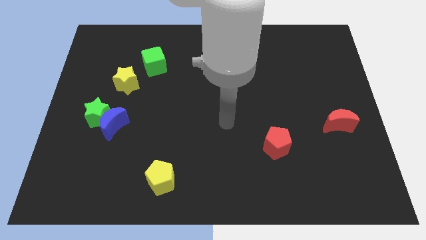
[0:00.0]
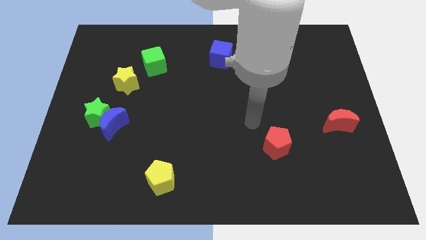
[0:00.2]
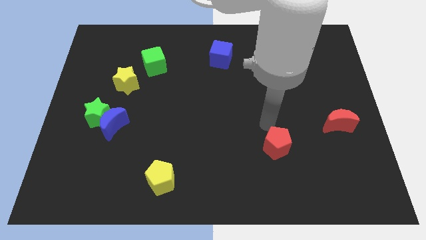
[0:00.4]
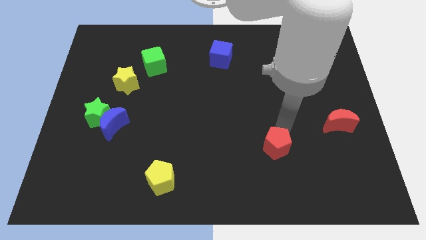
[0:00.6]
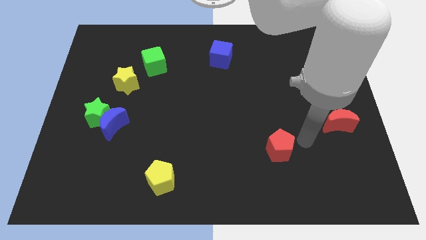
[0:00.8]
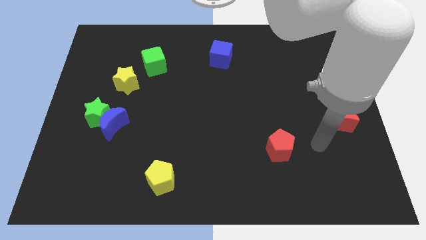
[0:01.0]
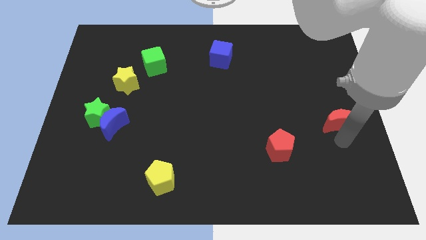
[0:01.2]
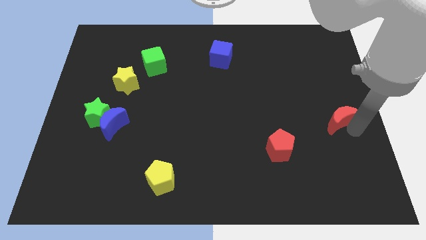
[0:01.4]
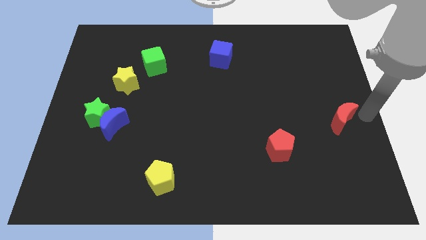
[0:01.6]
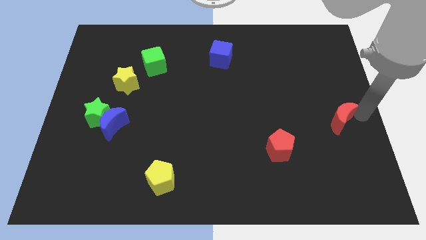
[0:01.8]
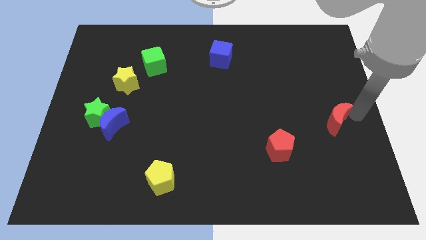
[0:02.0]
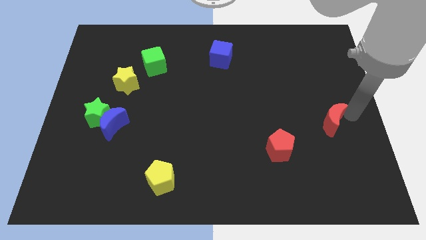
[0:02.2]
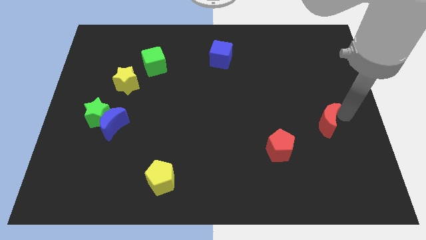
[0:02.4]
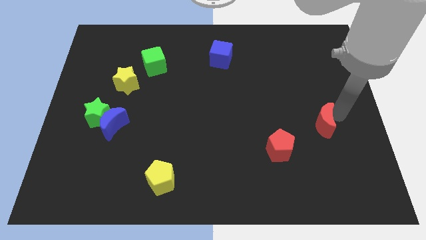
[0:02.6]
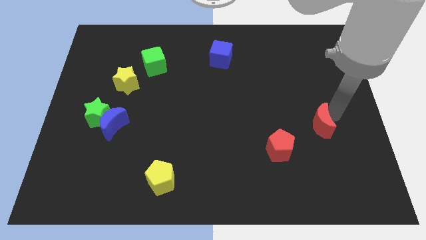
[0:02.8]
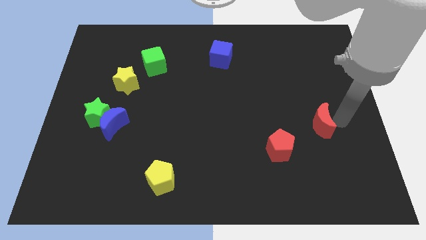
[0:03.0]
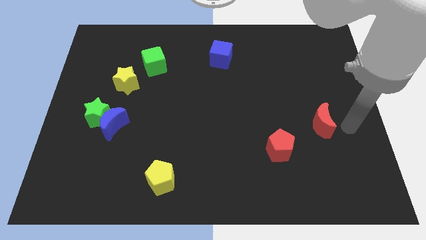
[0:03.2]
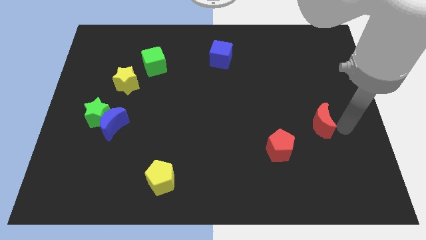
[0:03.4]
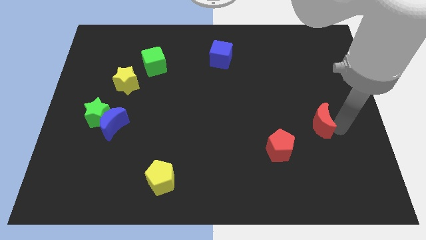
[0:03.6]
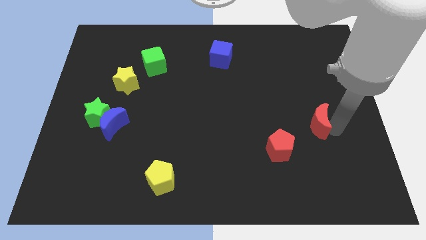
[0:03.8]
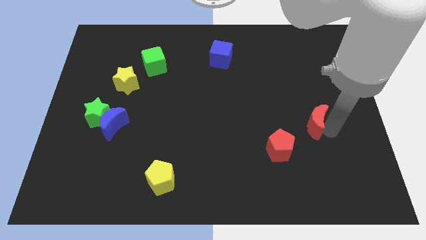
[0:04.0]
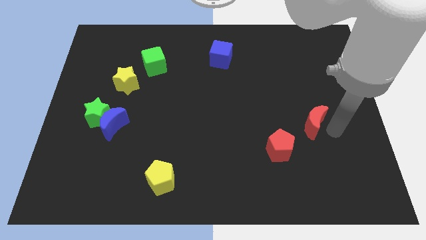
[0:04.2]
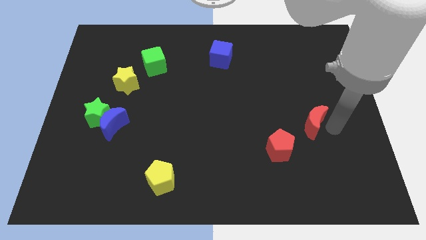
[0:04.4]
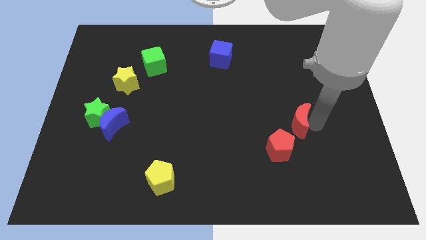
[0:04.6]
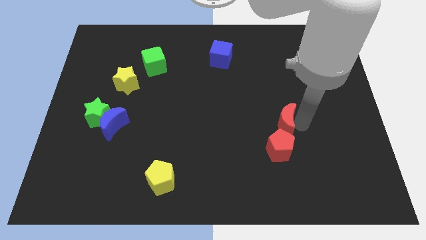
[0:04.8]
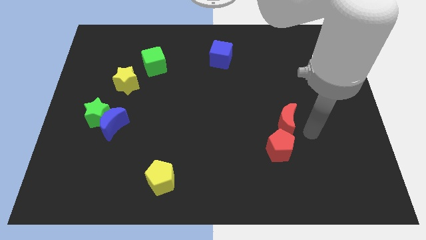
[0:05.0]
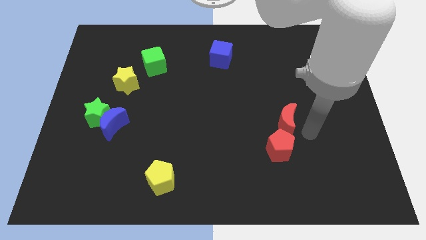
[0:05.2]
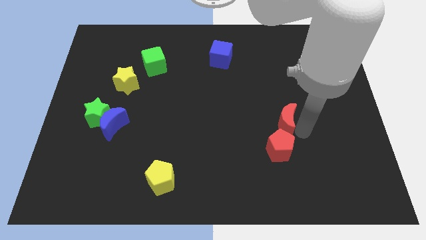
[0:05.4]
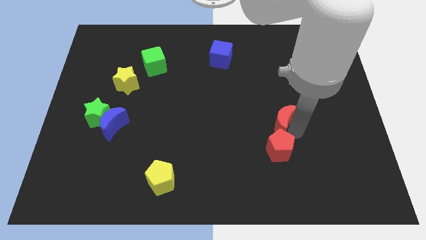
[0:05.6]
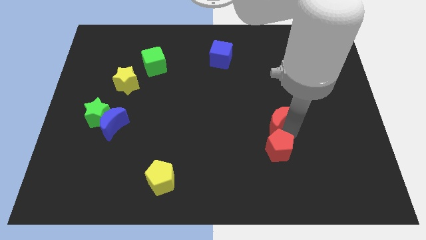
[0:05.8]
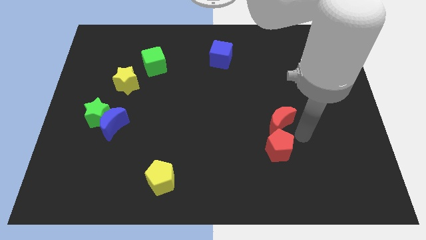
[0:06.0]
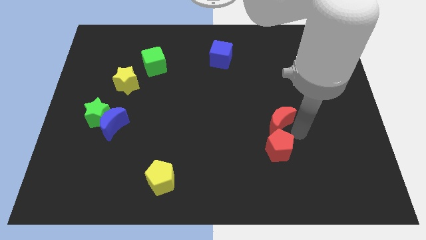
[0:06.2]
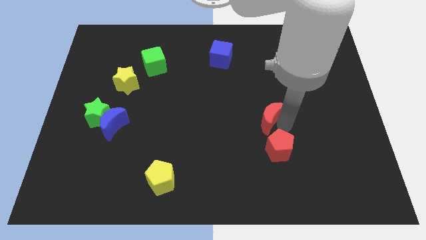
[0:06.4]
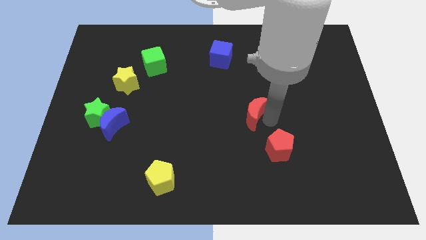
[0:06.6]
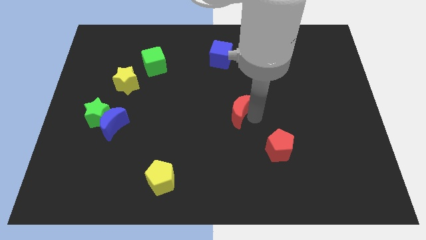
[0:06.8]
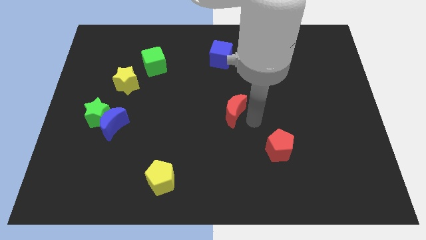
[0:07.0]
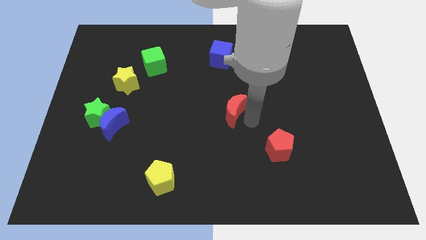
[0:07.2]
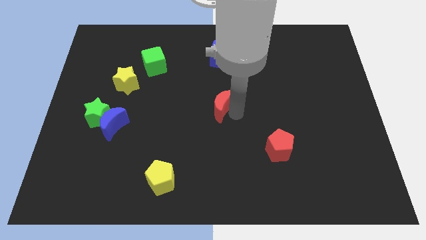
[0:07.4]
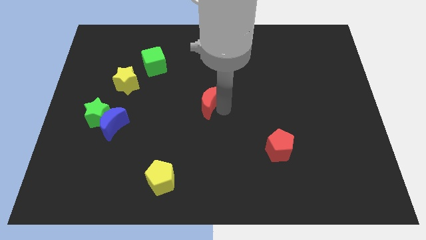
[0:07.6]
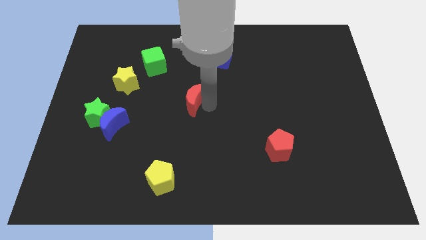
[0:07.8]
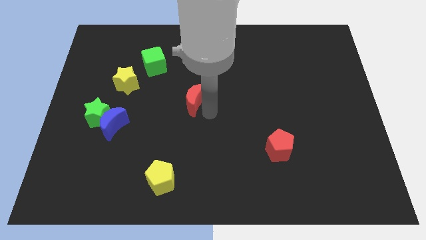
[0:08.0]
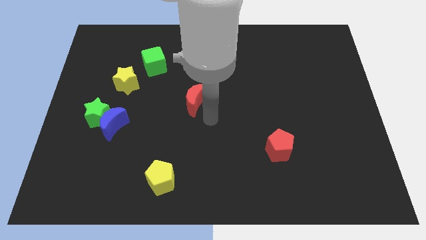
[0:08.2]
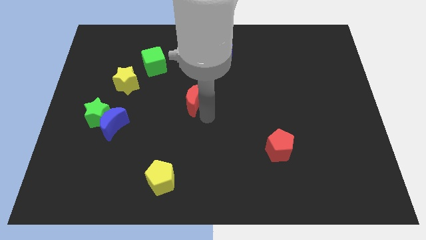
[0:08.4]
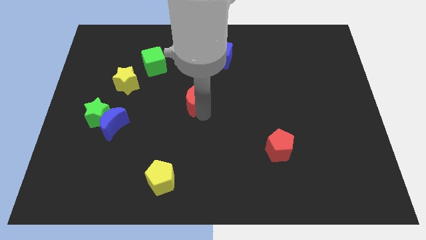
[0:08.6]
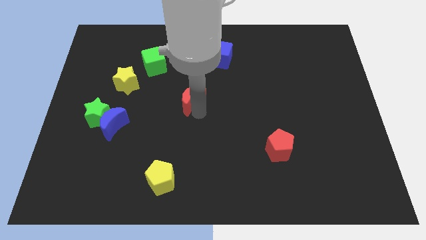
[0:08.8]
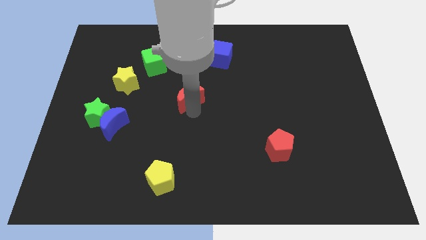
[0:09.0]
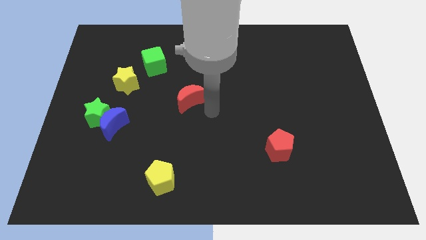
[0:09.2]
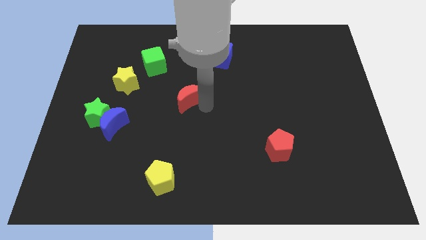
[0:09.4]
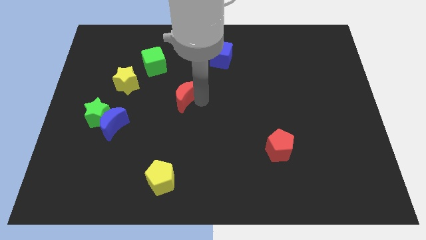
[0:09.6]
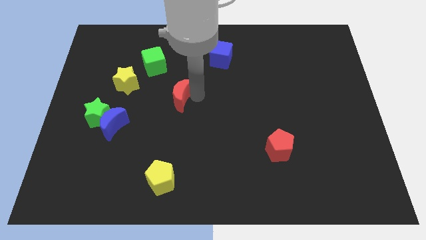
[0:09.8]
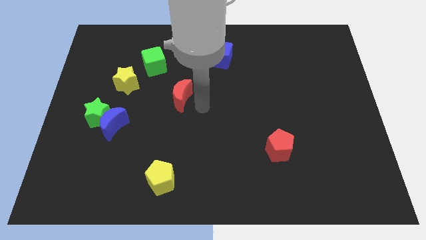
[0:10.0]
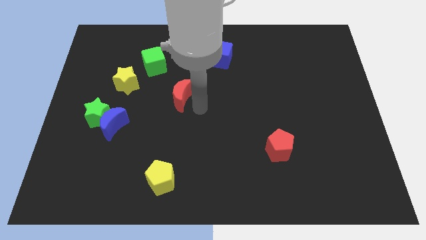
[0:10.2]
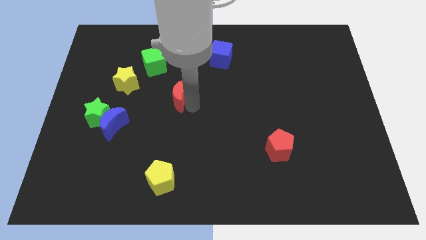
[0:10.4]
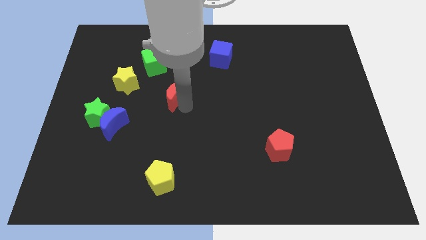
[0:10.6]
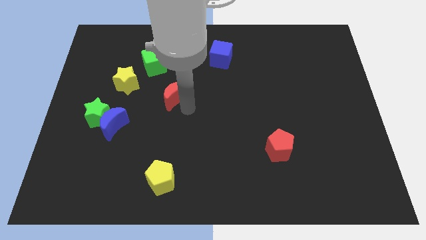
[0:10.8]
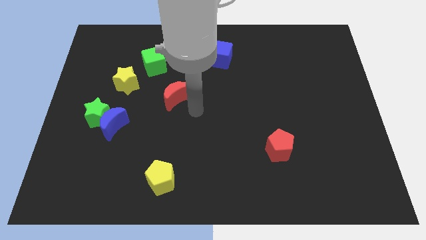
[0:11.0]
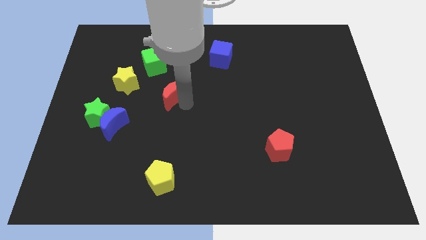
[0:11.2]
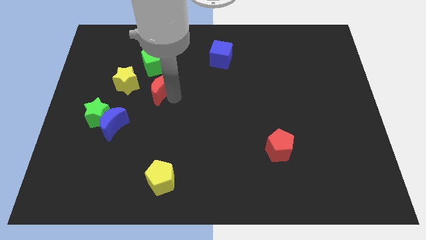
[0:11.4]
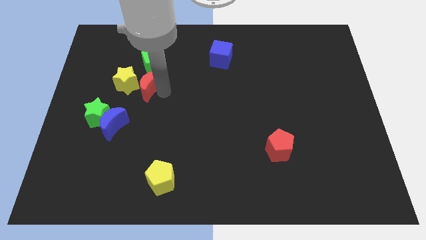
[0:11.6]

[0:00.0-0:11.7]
slide the red moon next to the yellow star

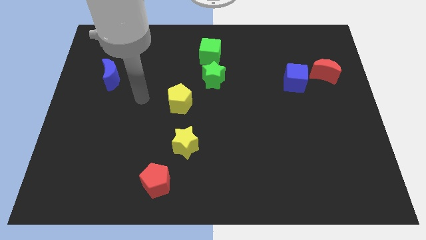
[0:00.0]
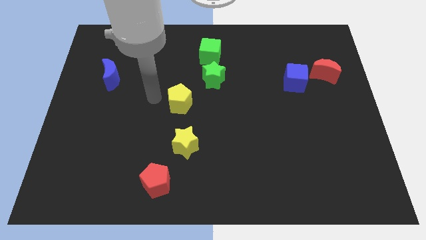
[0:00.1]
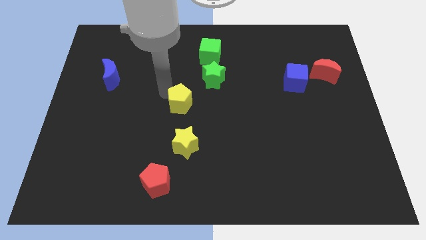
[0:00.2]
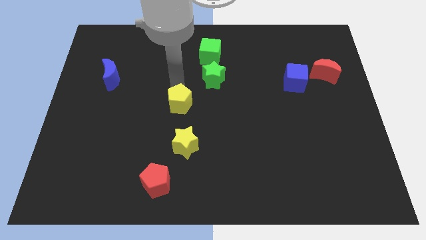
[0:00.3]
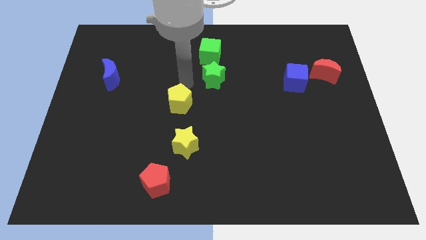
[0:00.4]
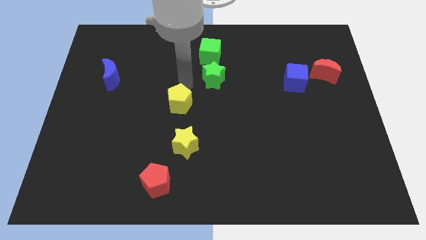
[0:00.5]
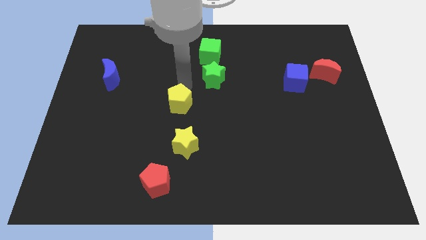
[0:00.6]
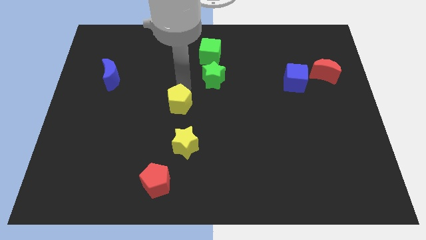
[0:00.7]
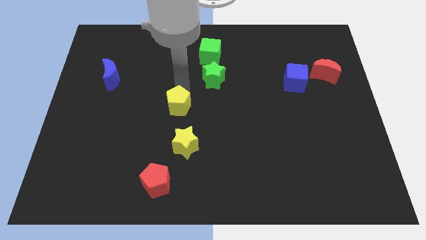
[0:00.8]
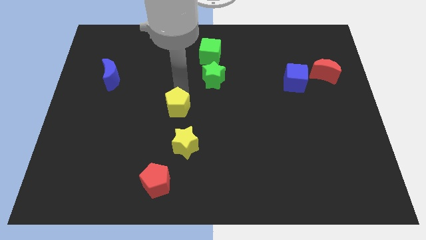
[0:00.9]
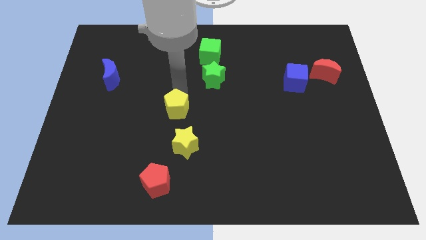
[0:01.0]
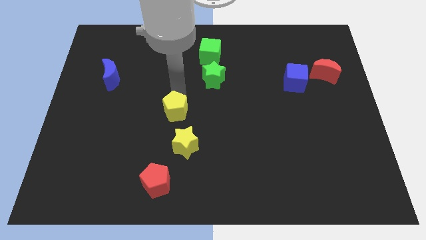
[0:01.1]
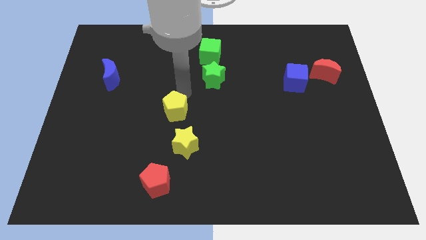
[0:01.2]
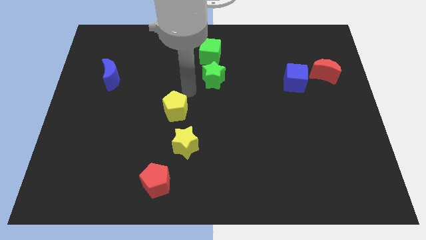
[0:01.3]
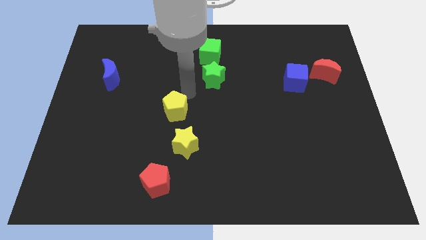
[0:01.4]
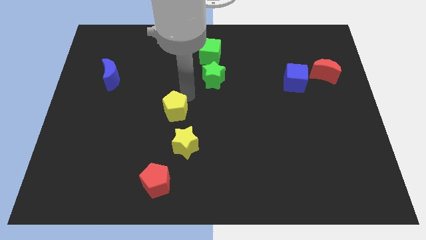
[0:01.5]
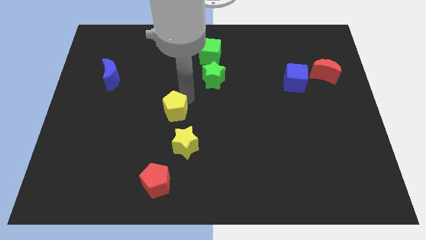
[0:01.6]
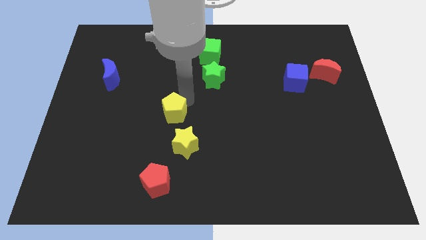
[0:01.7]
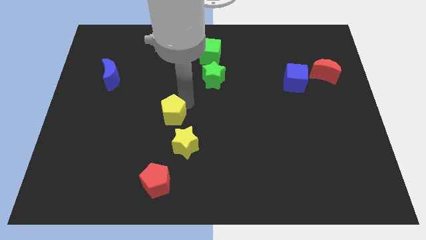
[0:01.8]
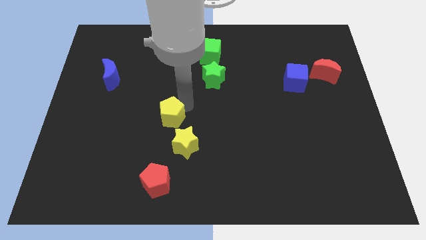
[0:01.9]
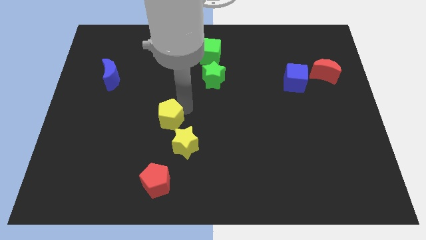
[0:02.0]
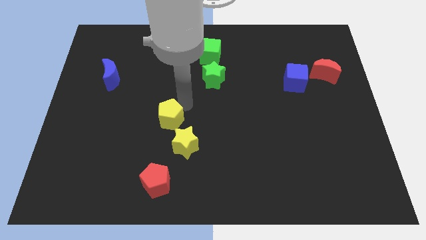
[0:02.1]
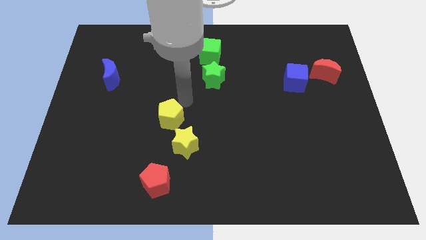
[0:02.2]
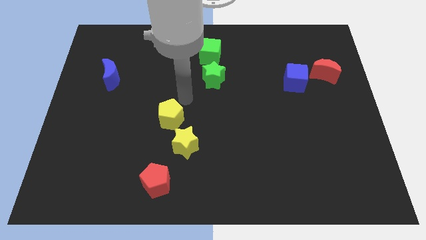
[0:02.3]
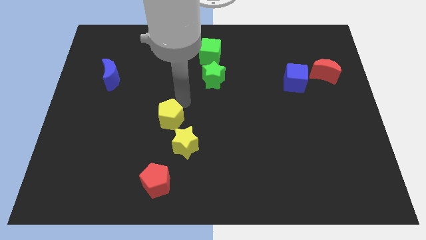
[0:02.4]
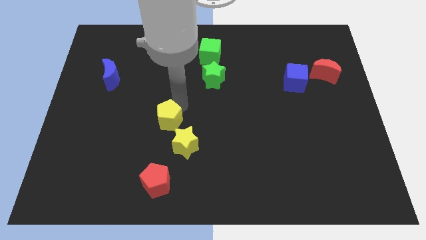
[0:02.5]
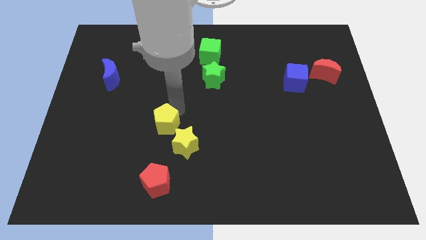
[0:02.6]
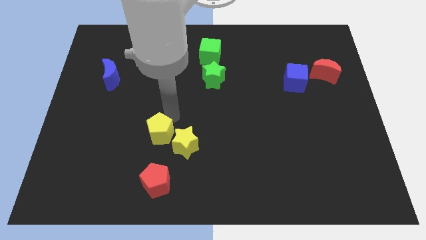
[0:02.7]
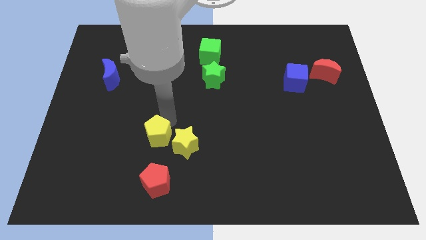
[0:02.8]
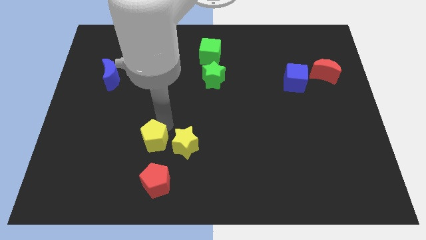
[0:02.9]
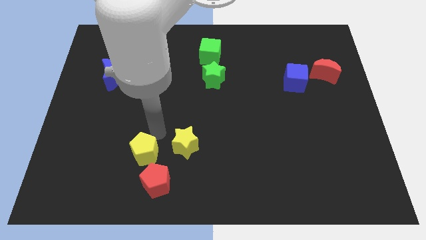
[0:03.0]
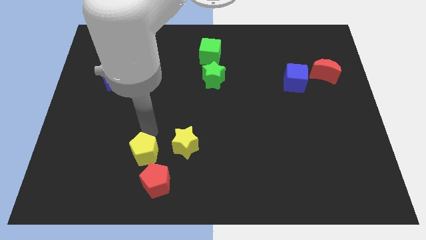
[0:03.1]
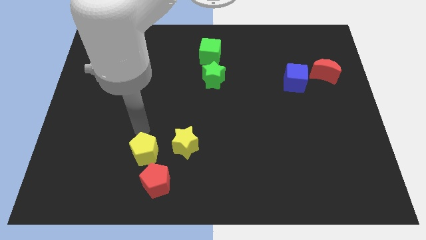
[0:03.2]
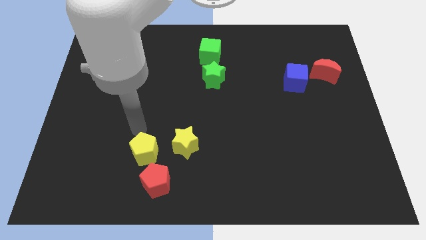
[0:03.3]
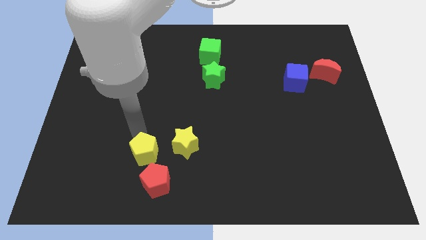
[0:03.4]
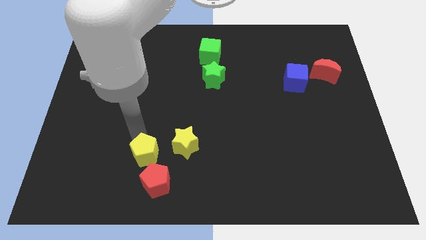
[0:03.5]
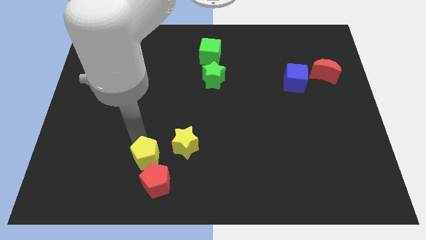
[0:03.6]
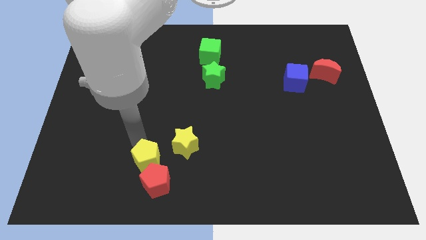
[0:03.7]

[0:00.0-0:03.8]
move the yellow pentagon towards the red pentagon
